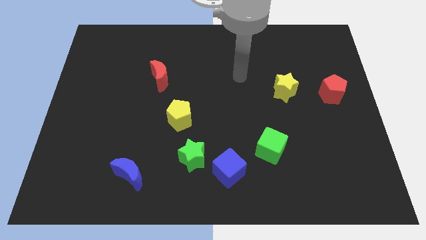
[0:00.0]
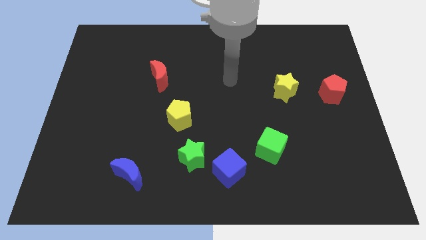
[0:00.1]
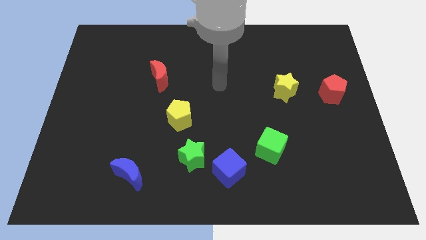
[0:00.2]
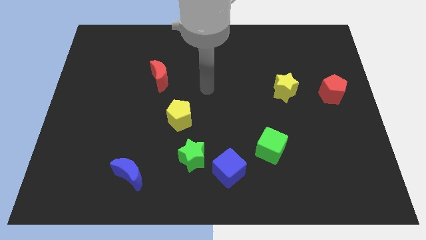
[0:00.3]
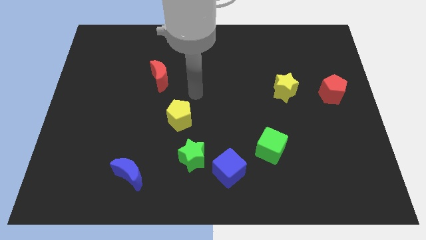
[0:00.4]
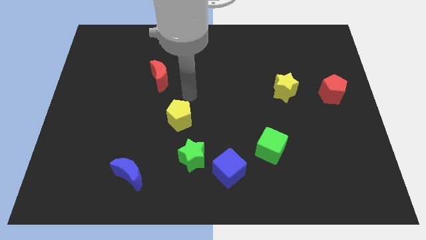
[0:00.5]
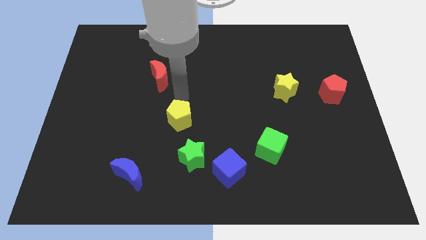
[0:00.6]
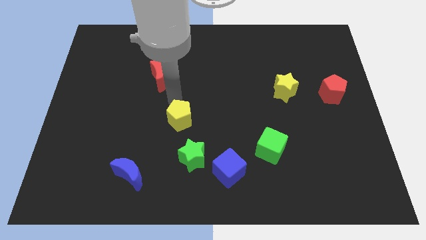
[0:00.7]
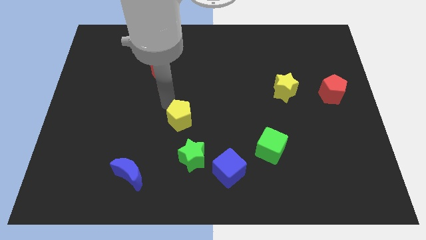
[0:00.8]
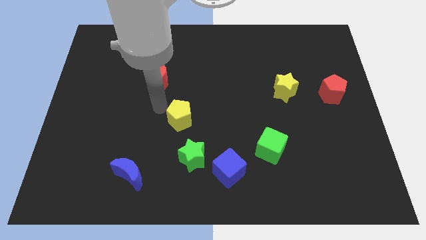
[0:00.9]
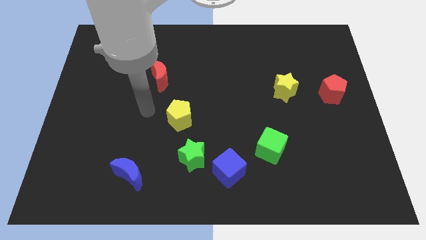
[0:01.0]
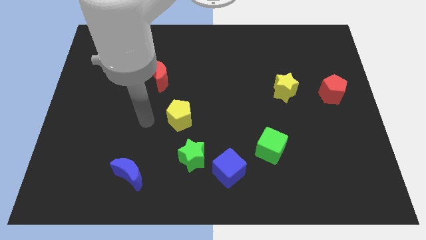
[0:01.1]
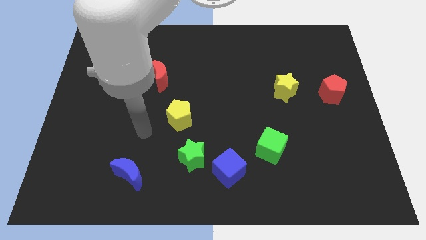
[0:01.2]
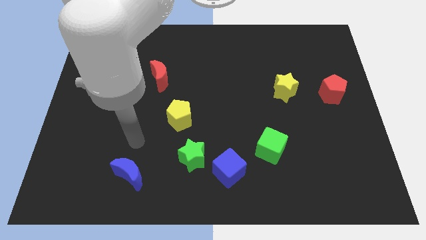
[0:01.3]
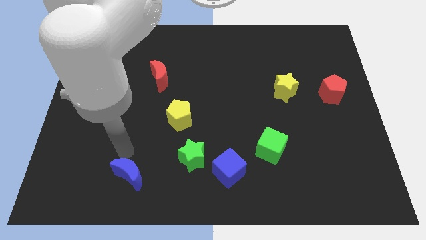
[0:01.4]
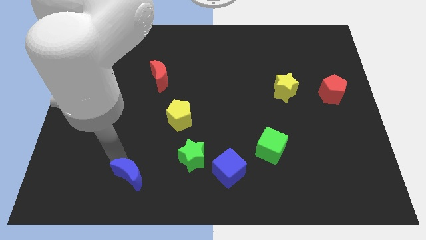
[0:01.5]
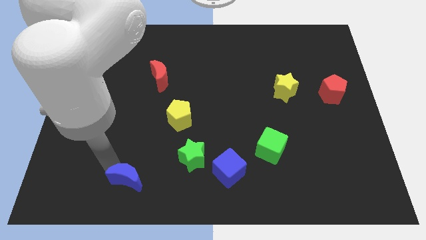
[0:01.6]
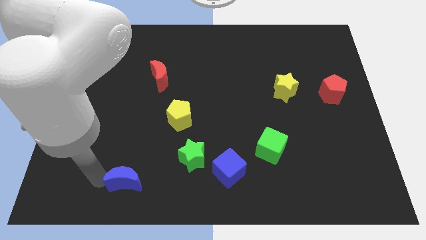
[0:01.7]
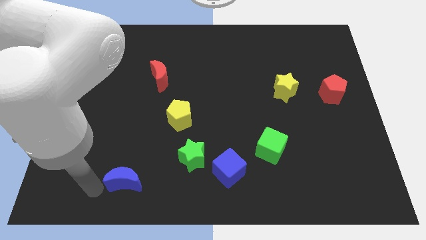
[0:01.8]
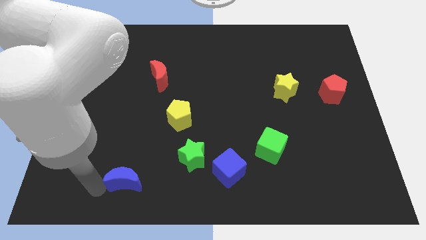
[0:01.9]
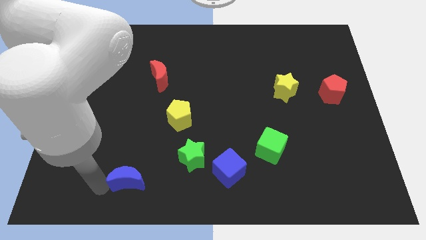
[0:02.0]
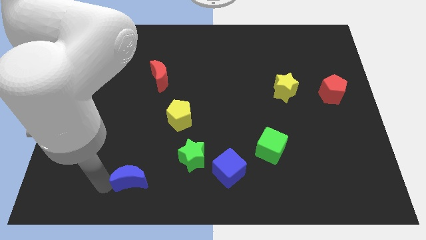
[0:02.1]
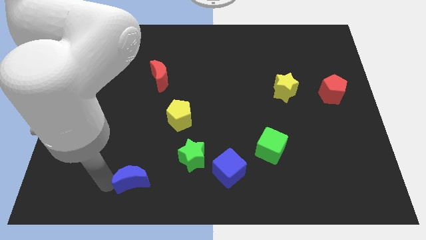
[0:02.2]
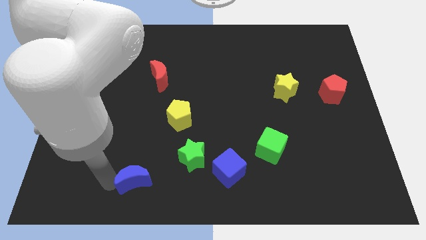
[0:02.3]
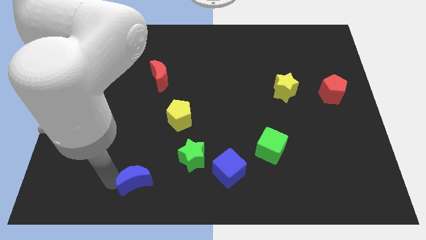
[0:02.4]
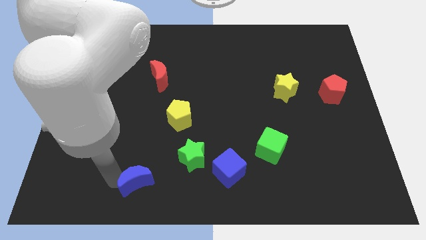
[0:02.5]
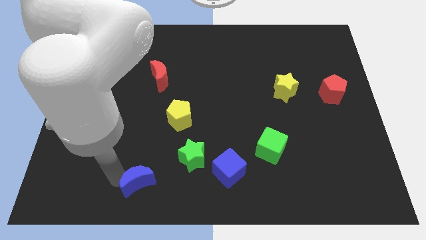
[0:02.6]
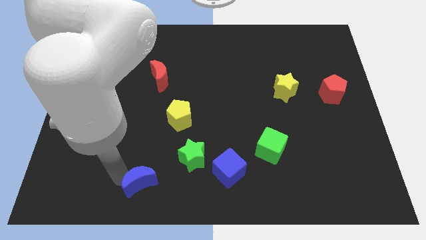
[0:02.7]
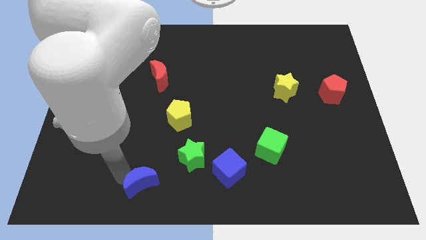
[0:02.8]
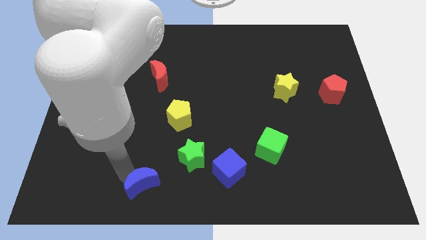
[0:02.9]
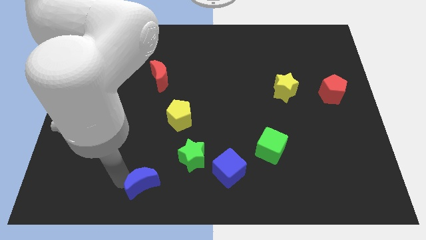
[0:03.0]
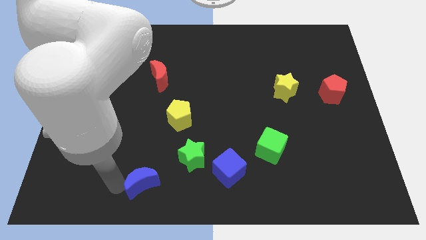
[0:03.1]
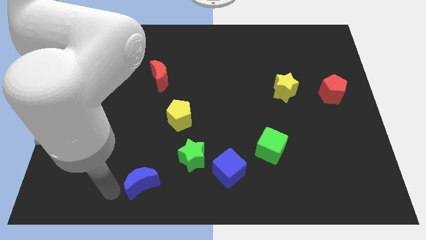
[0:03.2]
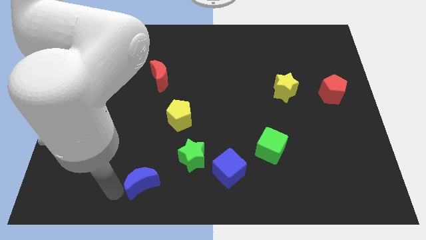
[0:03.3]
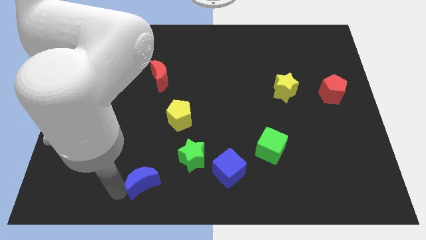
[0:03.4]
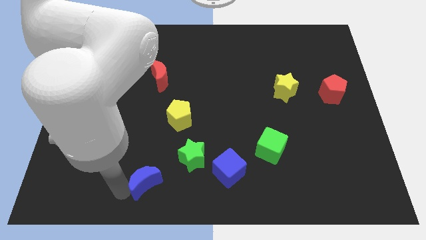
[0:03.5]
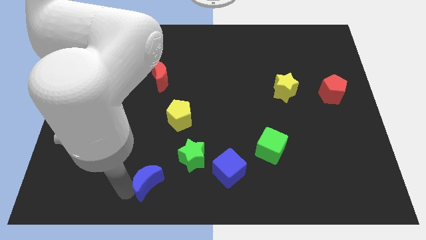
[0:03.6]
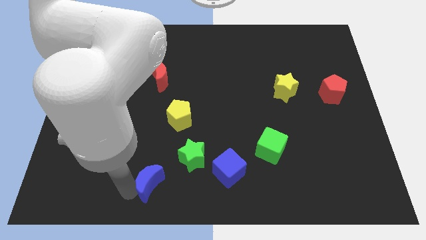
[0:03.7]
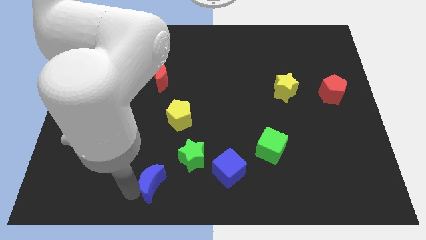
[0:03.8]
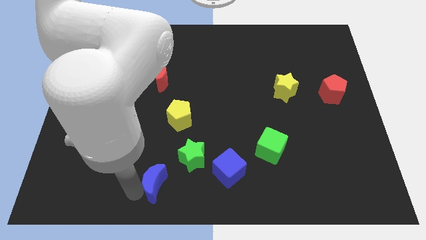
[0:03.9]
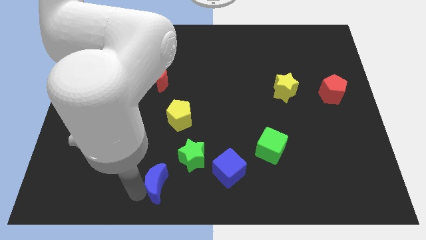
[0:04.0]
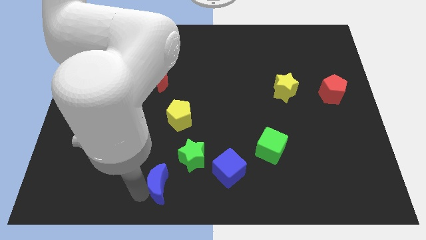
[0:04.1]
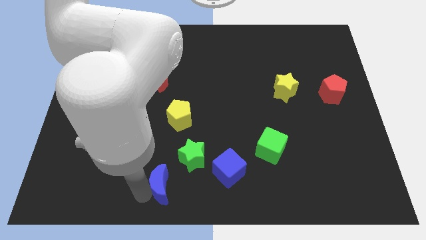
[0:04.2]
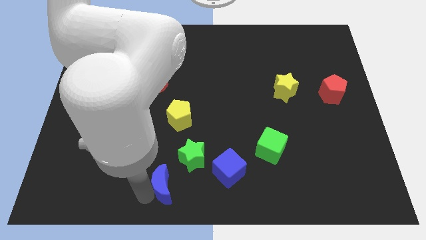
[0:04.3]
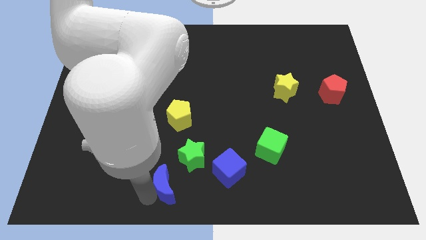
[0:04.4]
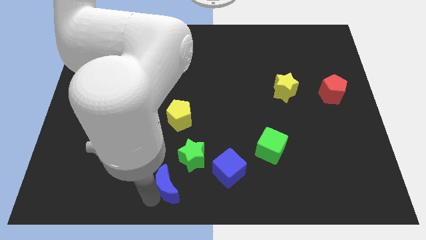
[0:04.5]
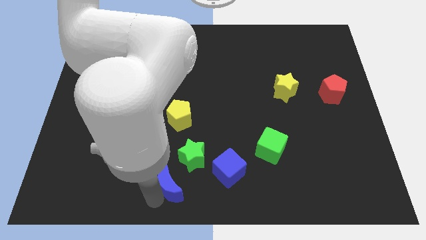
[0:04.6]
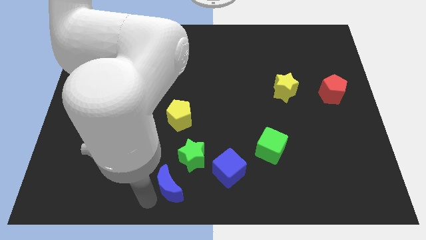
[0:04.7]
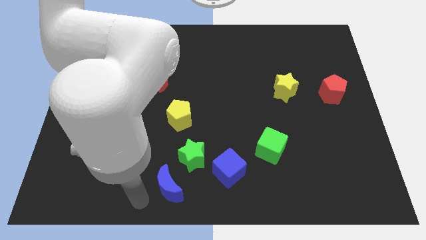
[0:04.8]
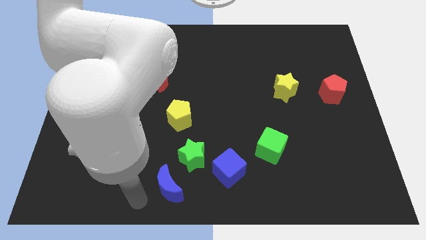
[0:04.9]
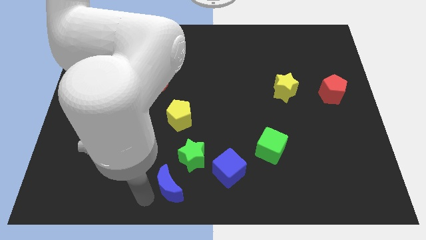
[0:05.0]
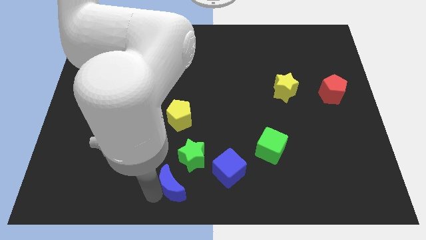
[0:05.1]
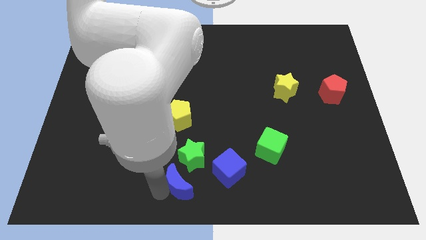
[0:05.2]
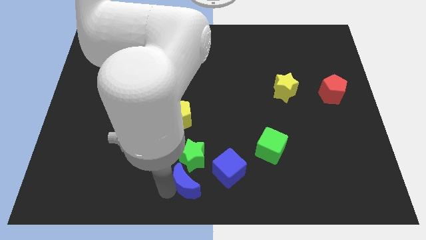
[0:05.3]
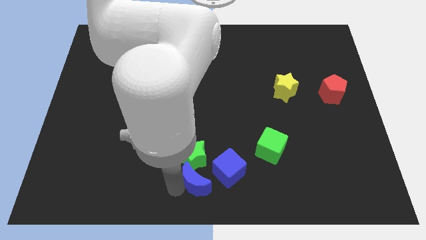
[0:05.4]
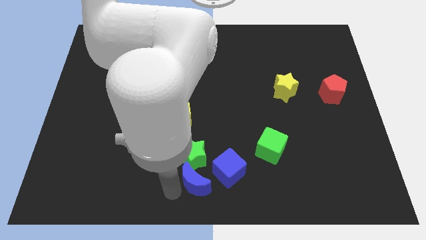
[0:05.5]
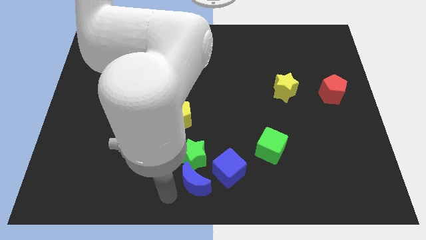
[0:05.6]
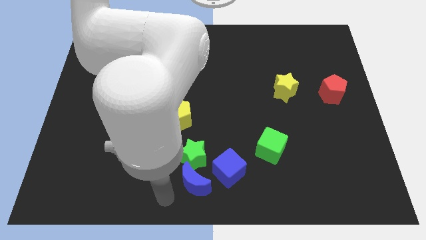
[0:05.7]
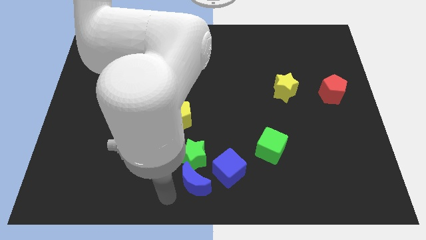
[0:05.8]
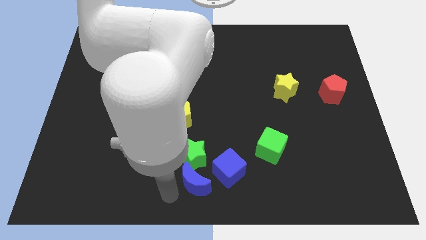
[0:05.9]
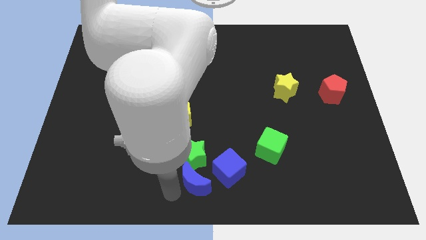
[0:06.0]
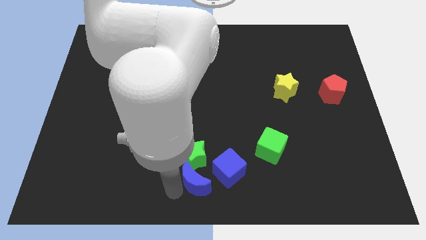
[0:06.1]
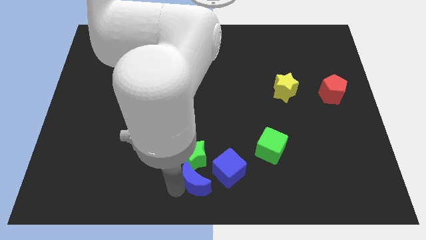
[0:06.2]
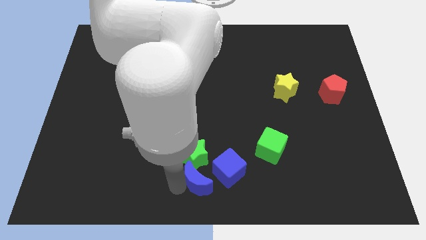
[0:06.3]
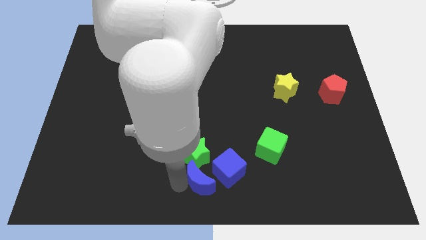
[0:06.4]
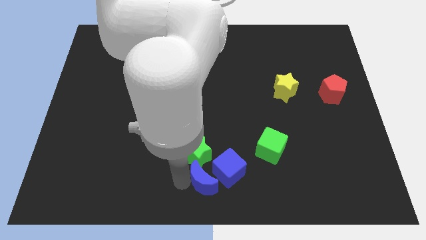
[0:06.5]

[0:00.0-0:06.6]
push the blue moon close to the blue cube
